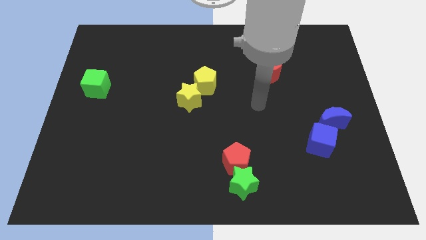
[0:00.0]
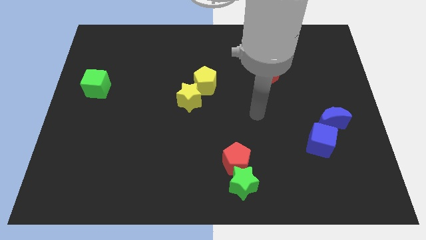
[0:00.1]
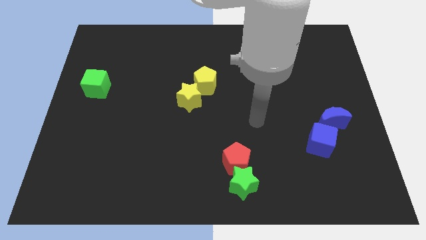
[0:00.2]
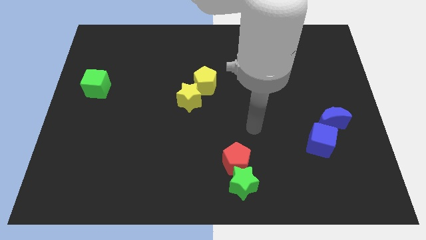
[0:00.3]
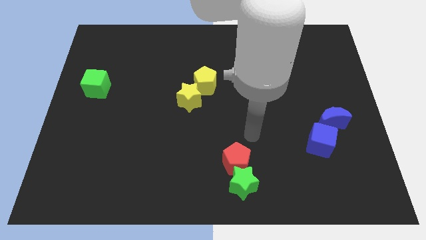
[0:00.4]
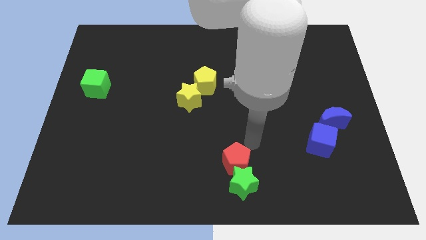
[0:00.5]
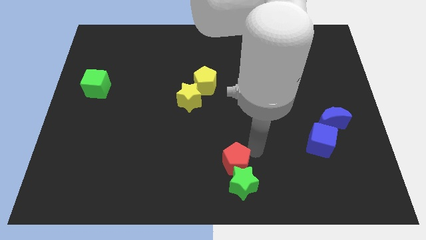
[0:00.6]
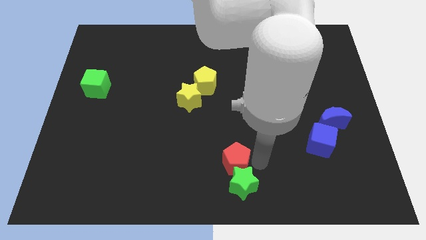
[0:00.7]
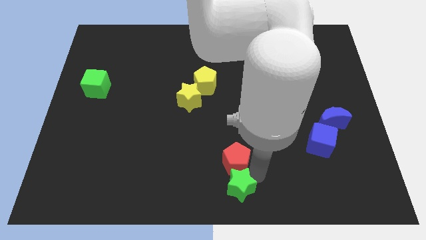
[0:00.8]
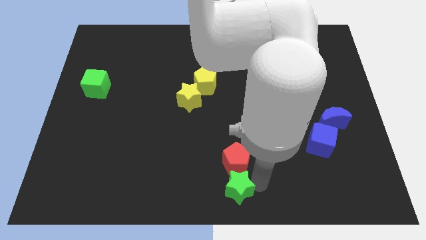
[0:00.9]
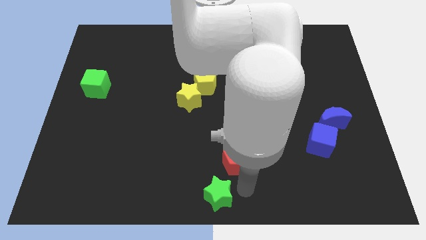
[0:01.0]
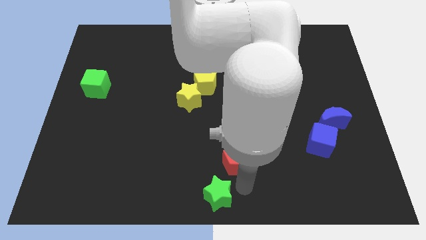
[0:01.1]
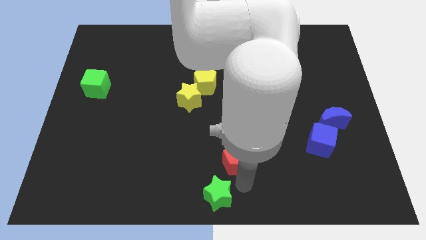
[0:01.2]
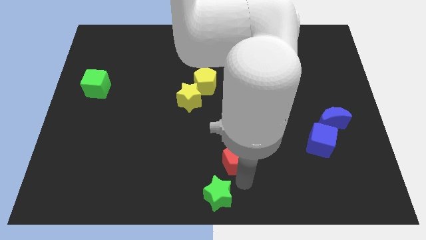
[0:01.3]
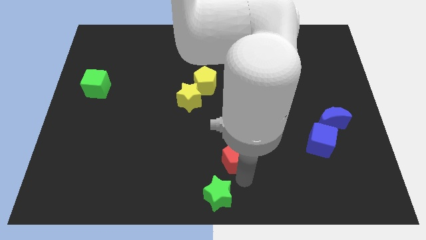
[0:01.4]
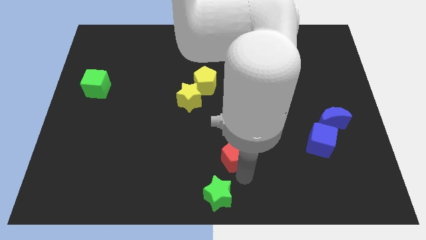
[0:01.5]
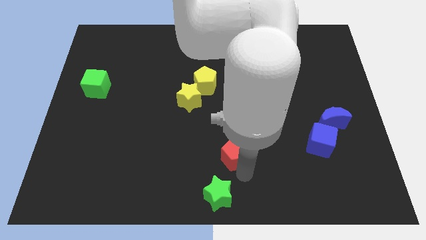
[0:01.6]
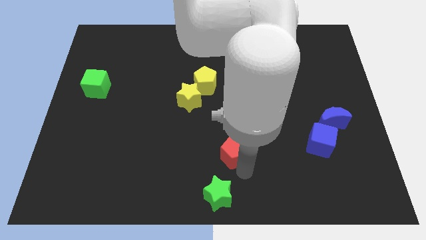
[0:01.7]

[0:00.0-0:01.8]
pull the red pentagon apart from the green star

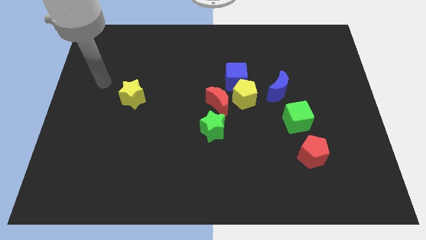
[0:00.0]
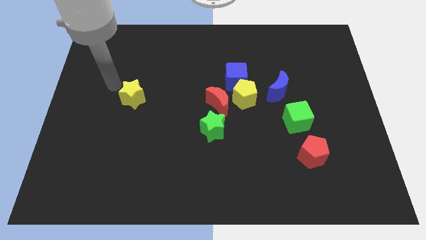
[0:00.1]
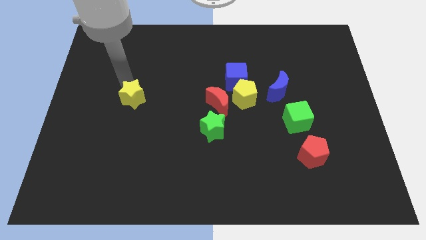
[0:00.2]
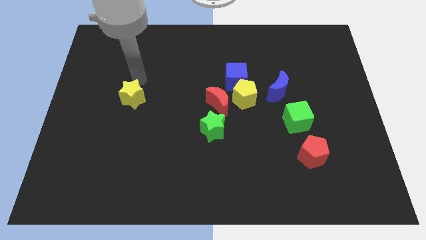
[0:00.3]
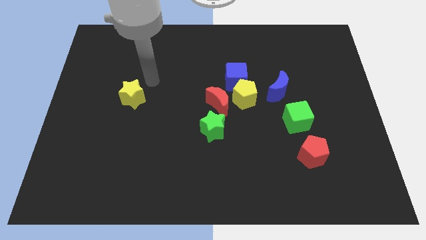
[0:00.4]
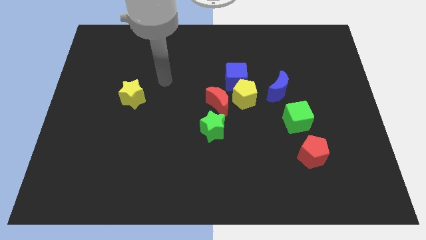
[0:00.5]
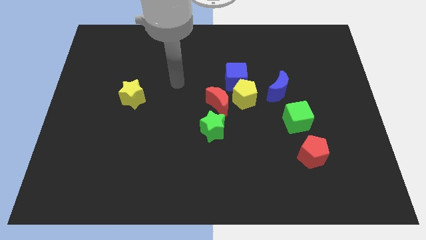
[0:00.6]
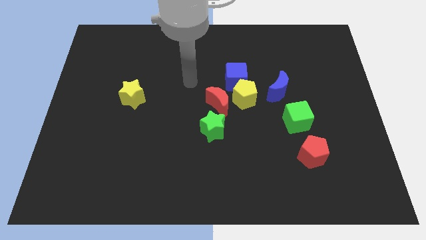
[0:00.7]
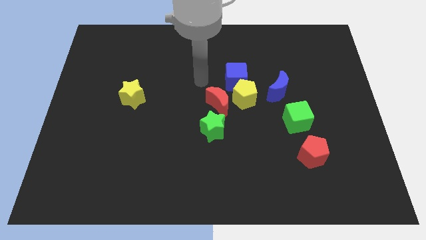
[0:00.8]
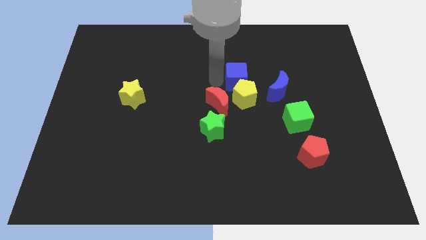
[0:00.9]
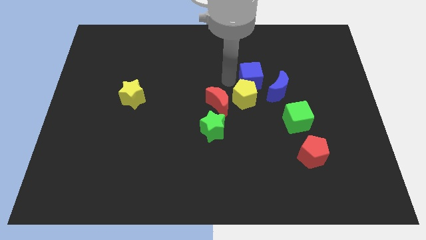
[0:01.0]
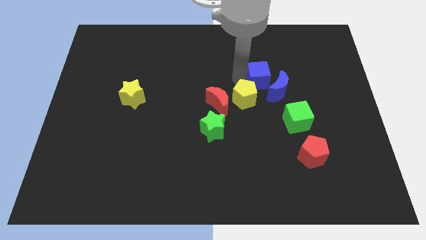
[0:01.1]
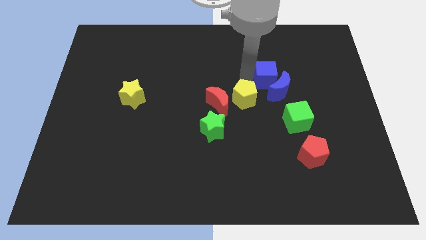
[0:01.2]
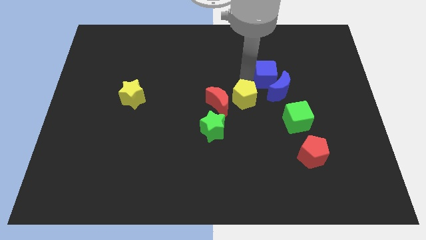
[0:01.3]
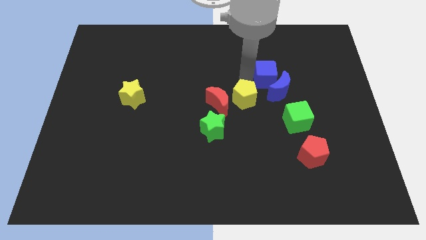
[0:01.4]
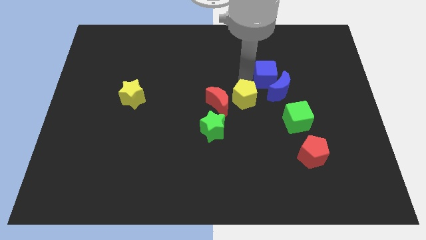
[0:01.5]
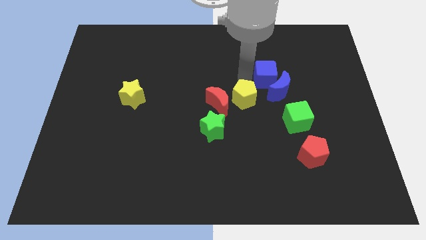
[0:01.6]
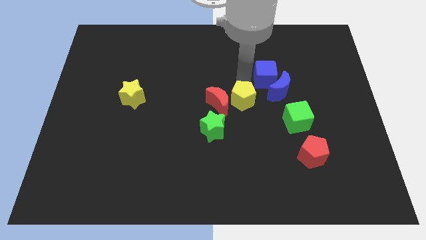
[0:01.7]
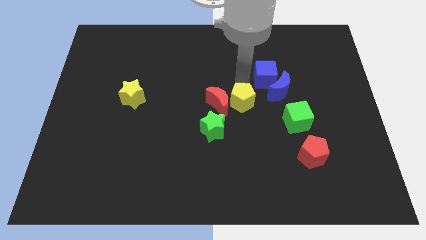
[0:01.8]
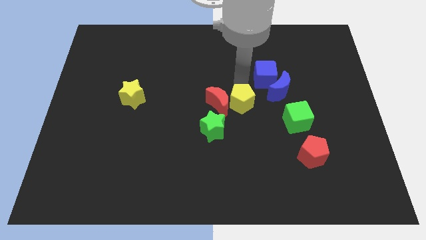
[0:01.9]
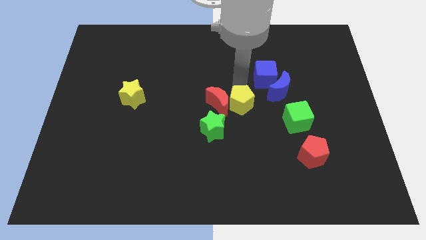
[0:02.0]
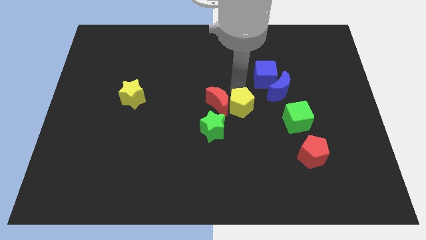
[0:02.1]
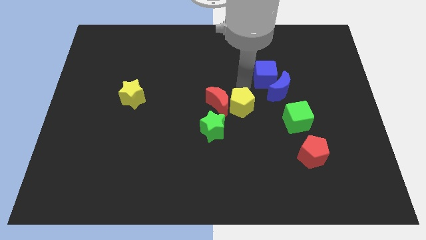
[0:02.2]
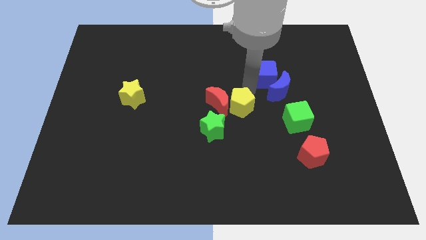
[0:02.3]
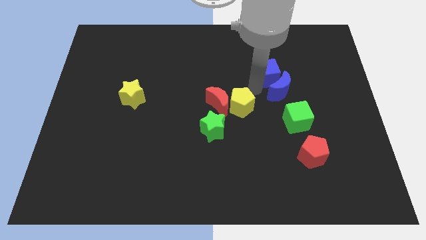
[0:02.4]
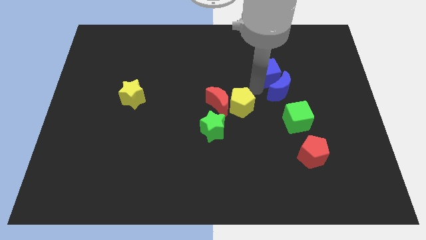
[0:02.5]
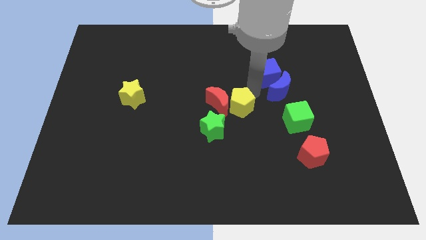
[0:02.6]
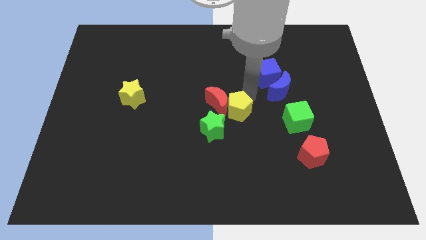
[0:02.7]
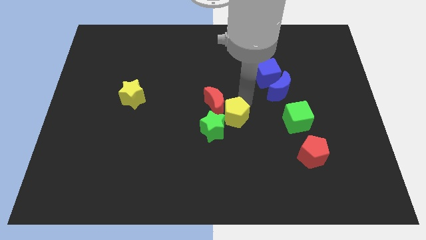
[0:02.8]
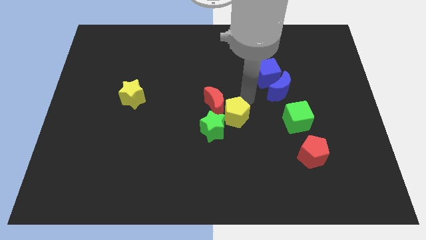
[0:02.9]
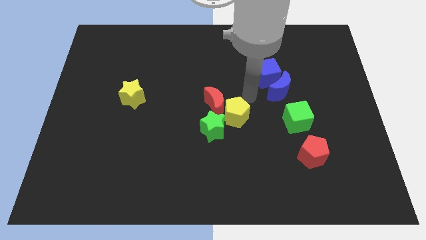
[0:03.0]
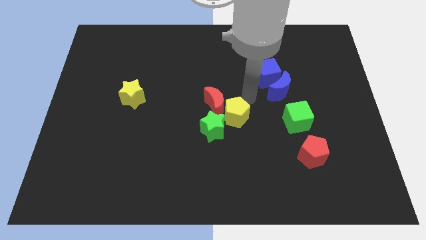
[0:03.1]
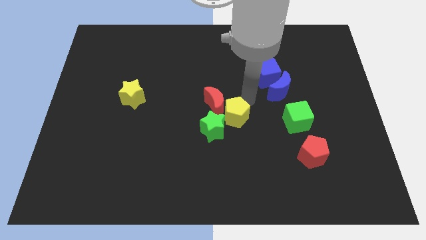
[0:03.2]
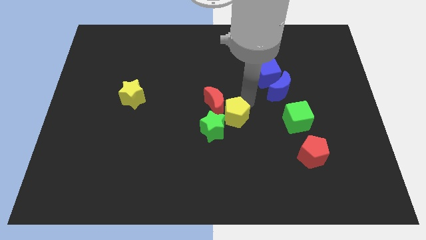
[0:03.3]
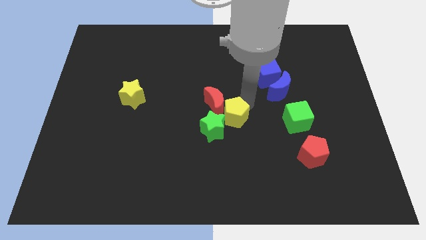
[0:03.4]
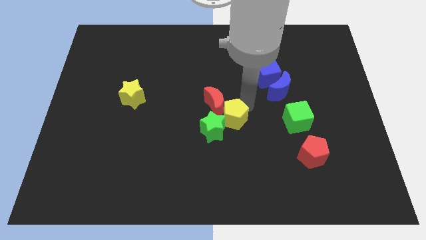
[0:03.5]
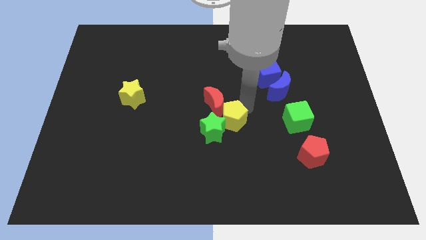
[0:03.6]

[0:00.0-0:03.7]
separate the yellow pentagon from the blue cube, red moon, and blue moon

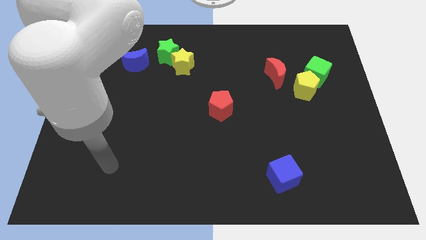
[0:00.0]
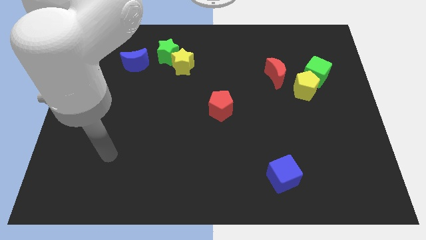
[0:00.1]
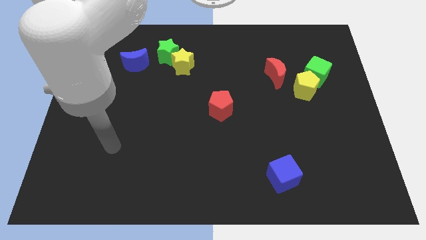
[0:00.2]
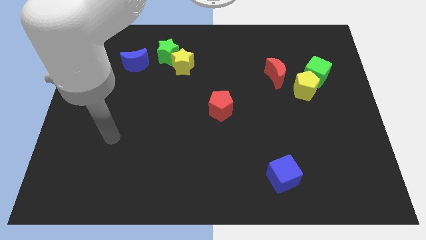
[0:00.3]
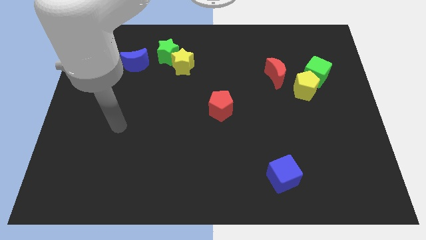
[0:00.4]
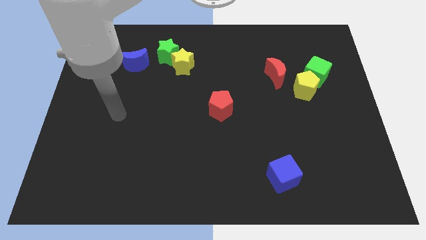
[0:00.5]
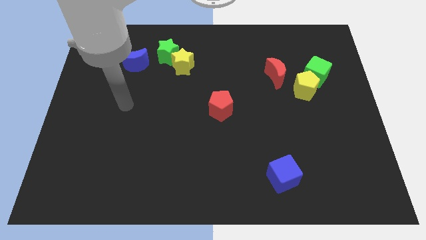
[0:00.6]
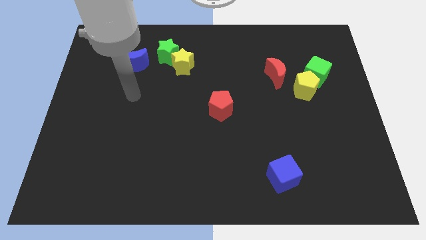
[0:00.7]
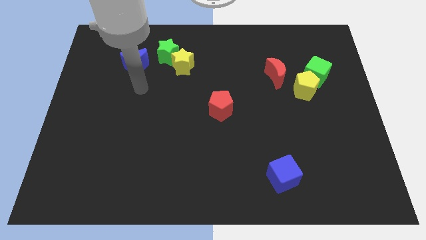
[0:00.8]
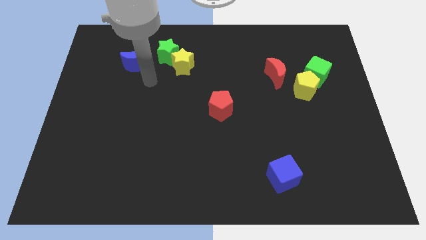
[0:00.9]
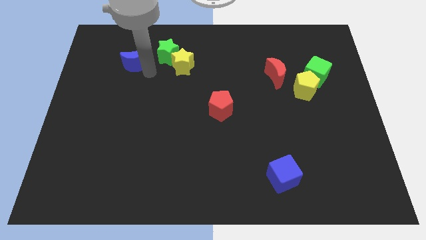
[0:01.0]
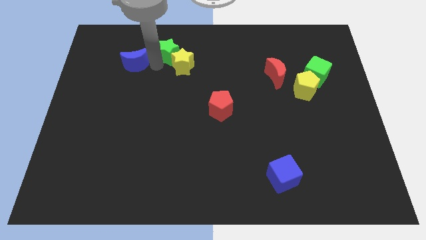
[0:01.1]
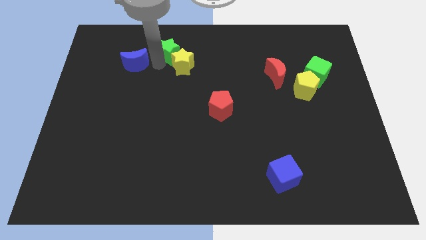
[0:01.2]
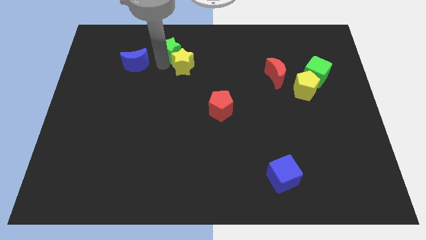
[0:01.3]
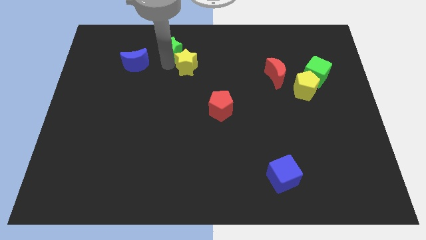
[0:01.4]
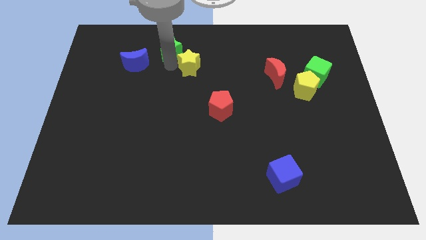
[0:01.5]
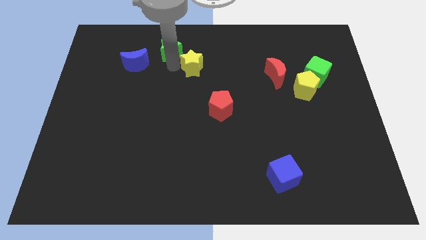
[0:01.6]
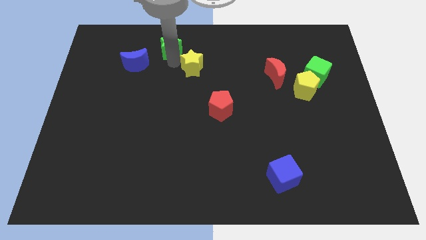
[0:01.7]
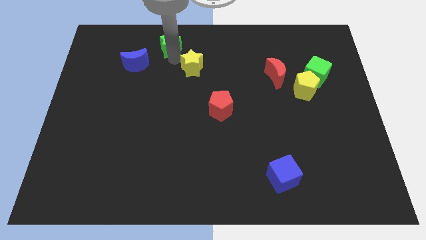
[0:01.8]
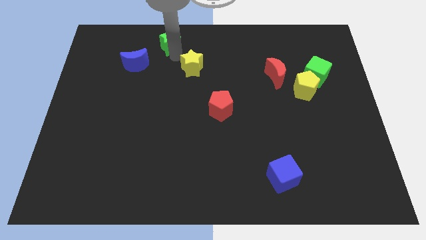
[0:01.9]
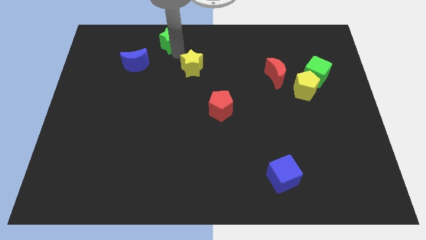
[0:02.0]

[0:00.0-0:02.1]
separate the yellow star from the green star

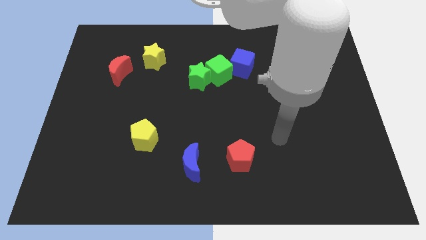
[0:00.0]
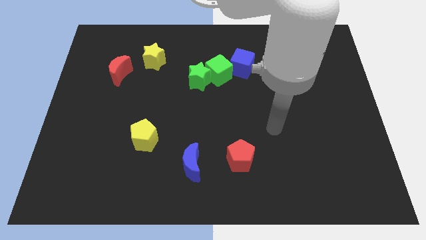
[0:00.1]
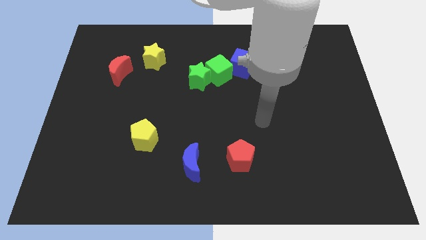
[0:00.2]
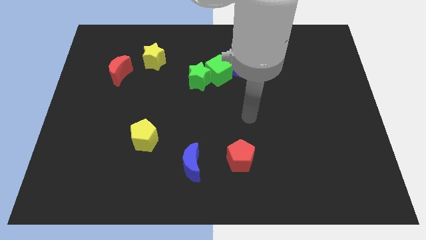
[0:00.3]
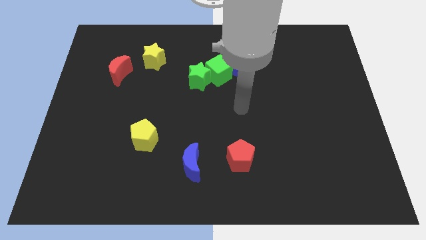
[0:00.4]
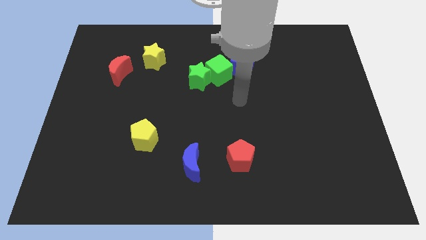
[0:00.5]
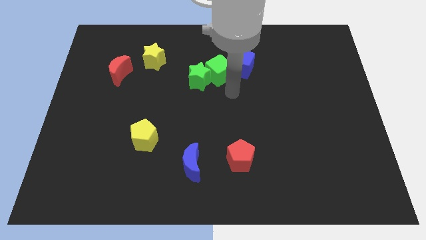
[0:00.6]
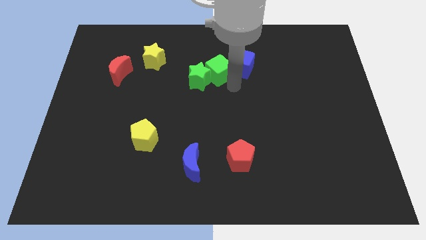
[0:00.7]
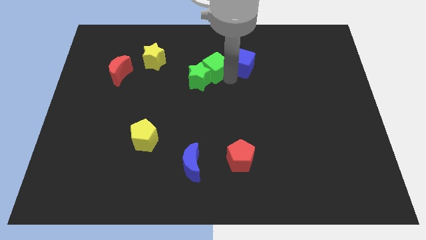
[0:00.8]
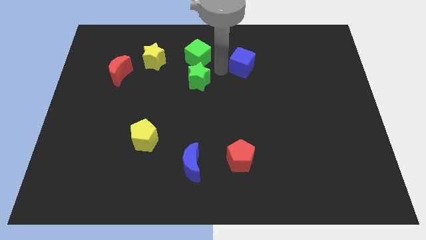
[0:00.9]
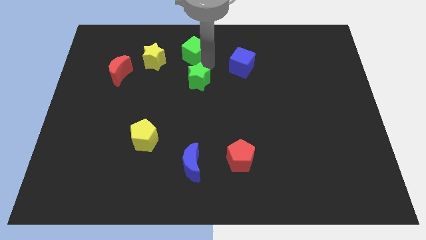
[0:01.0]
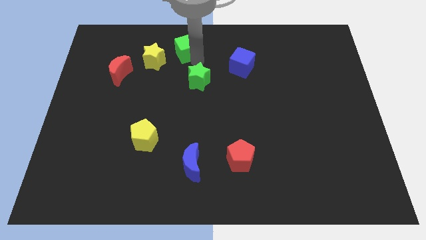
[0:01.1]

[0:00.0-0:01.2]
separate the green star from the green cube
